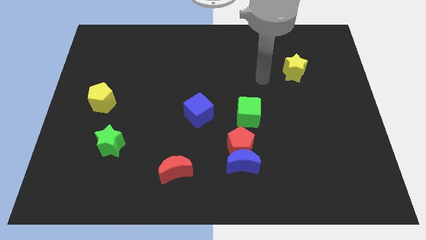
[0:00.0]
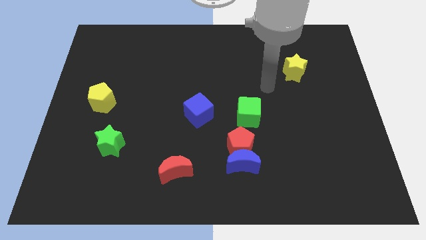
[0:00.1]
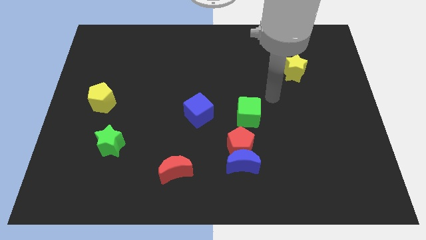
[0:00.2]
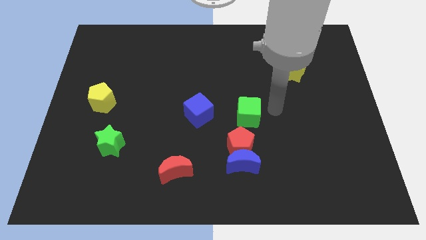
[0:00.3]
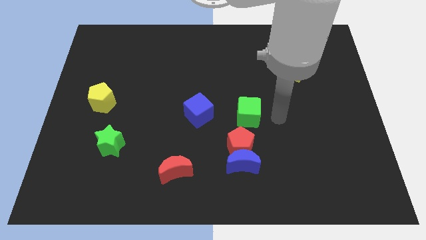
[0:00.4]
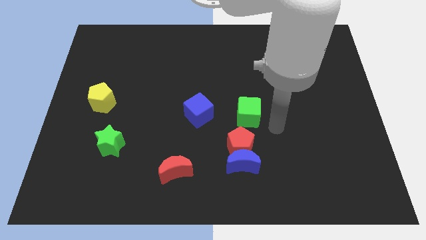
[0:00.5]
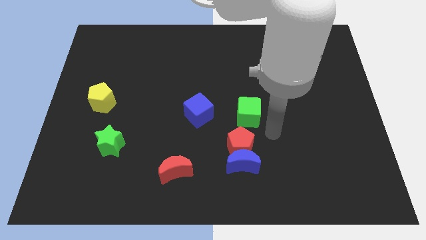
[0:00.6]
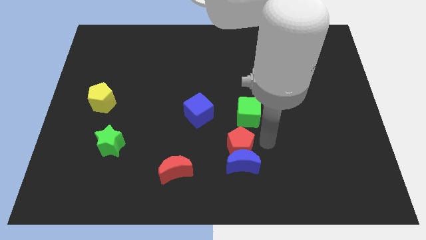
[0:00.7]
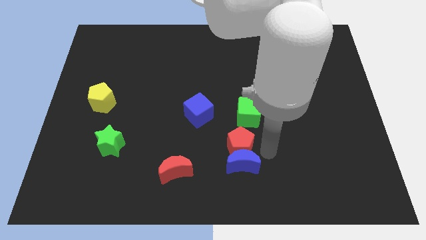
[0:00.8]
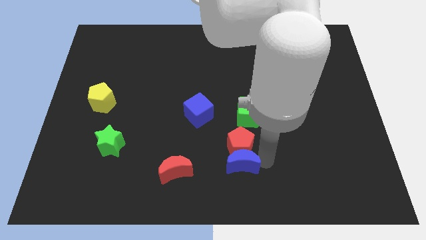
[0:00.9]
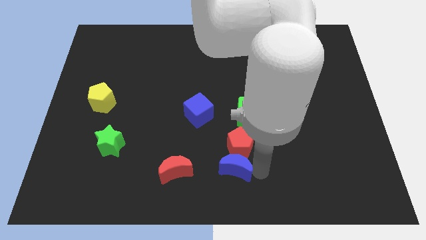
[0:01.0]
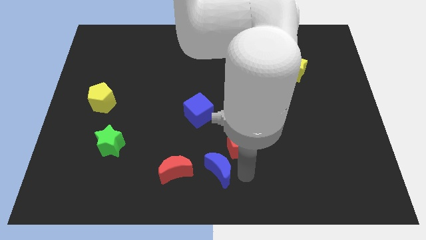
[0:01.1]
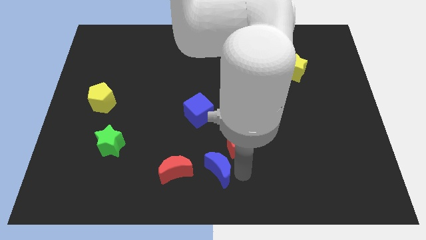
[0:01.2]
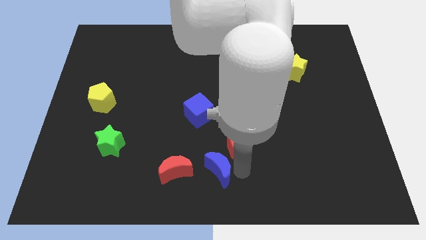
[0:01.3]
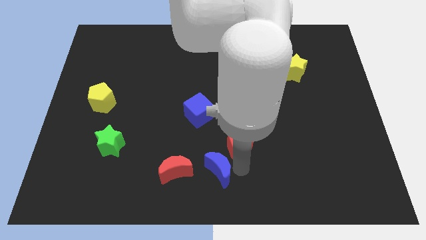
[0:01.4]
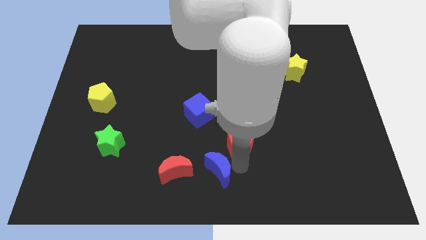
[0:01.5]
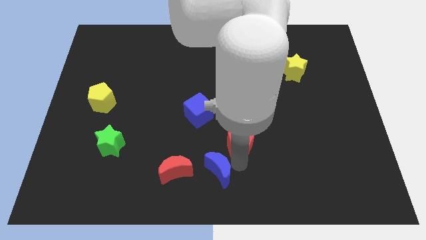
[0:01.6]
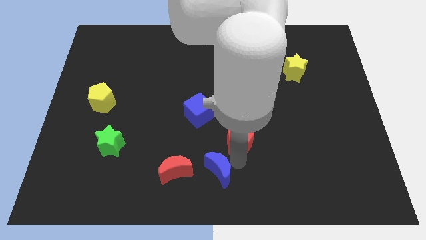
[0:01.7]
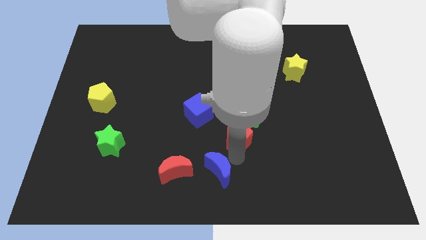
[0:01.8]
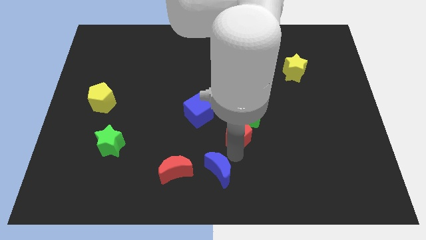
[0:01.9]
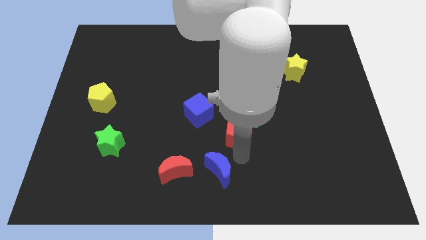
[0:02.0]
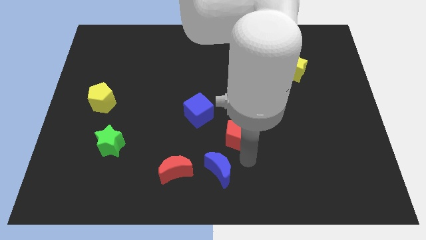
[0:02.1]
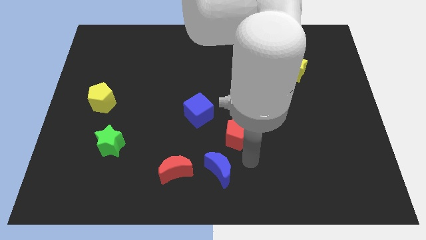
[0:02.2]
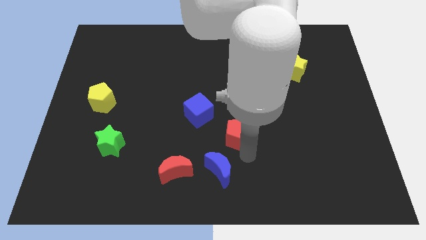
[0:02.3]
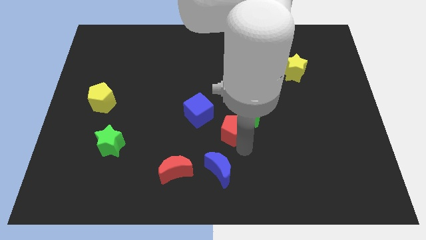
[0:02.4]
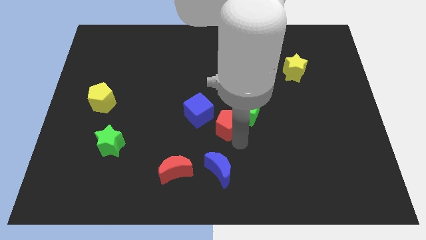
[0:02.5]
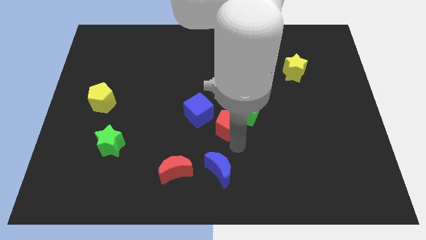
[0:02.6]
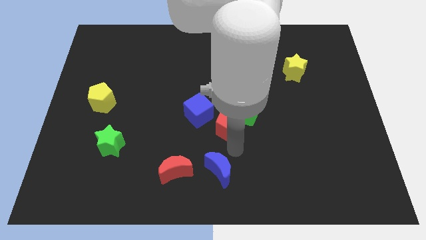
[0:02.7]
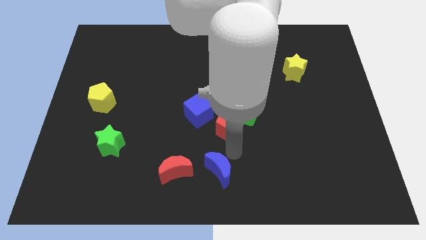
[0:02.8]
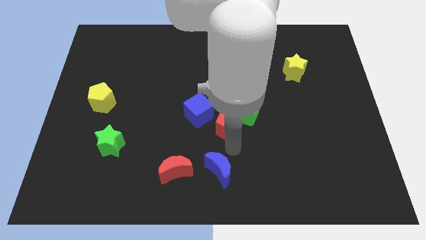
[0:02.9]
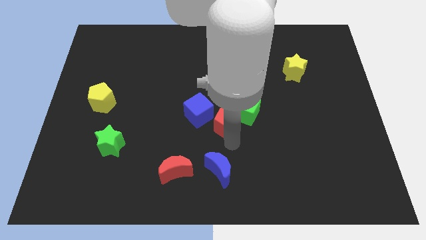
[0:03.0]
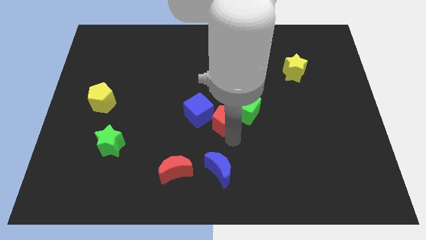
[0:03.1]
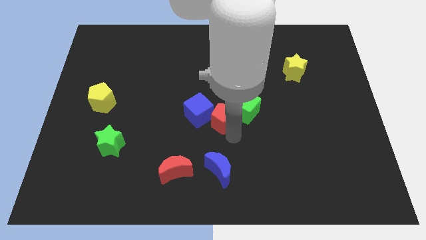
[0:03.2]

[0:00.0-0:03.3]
push the red pentagon a little diagonally upwards and to the left

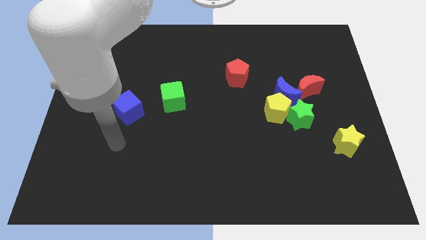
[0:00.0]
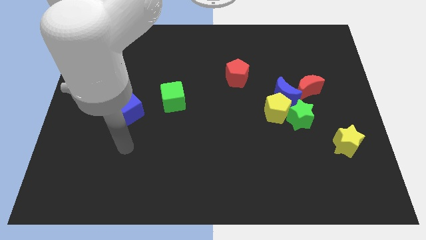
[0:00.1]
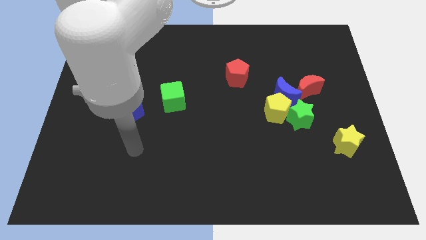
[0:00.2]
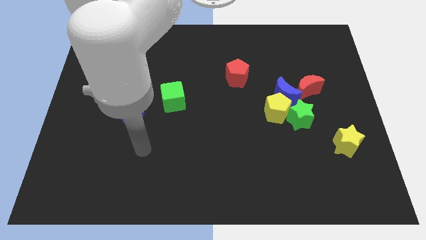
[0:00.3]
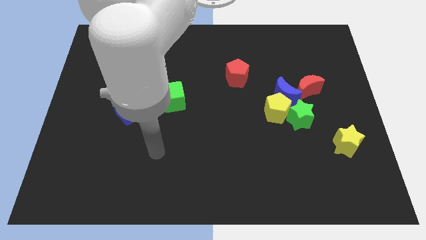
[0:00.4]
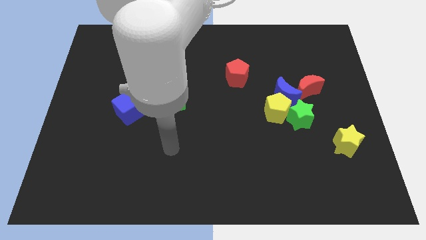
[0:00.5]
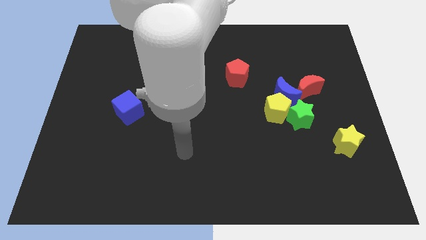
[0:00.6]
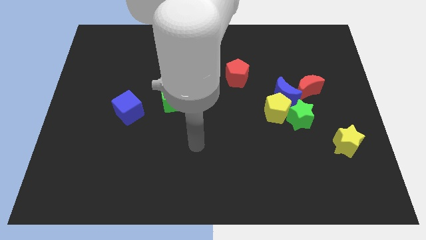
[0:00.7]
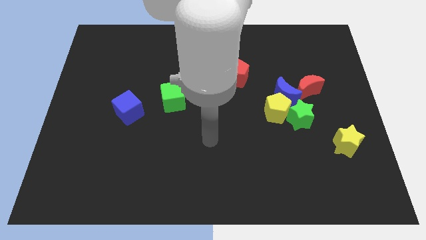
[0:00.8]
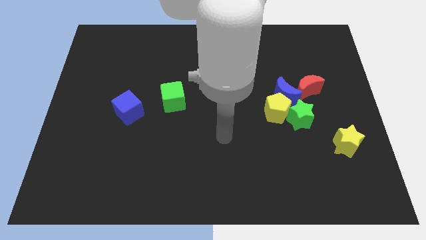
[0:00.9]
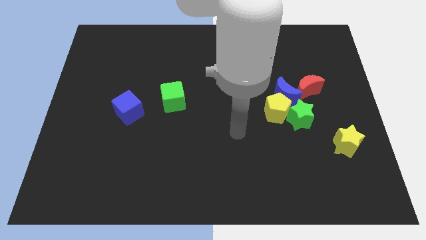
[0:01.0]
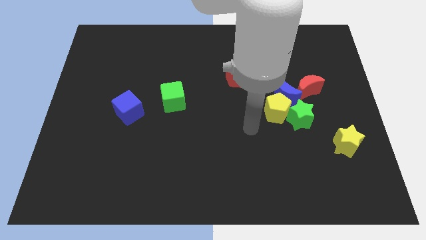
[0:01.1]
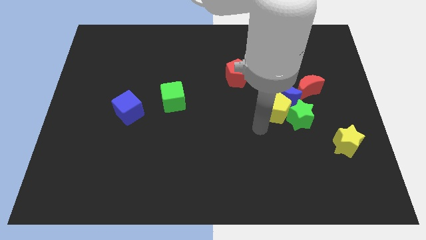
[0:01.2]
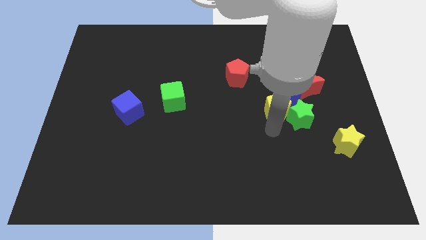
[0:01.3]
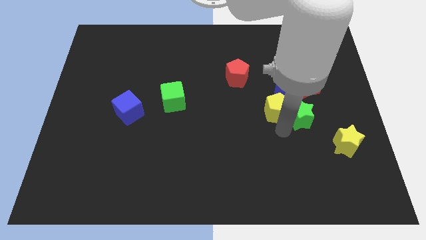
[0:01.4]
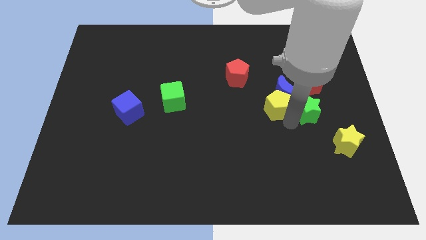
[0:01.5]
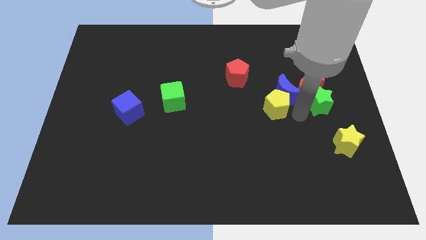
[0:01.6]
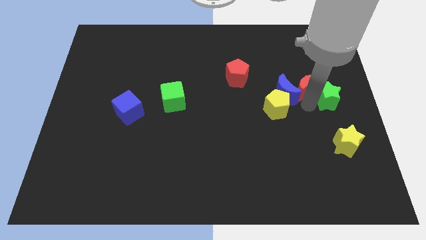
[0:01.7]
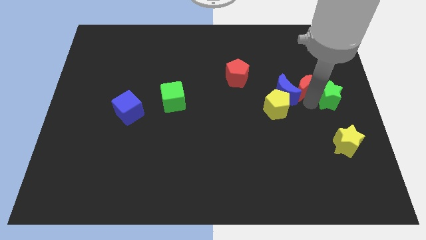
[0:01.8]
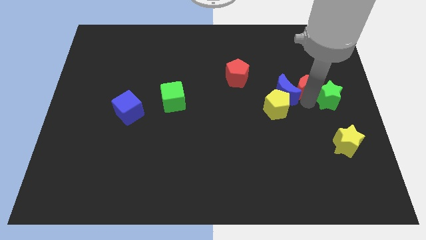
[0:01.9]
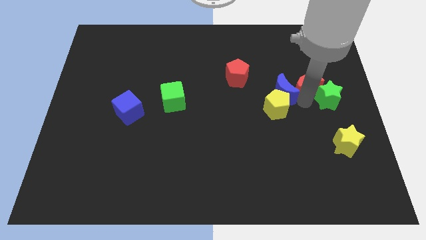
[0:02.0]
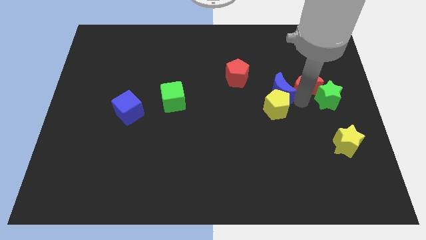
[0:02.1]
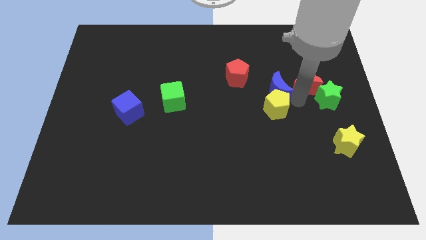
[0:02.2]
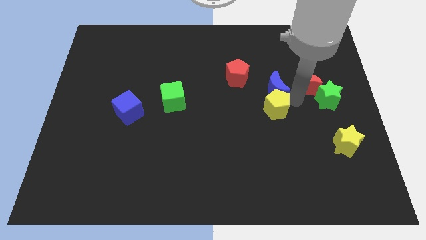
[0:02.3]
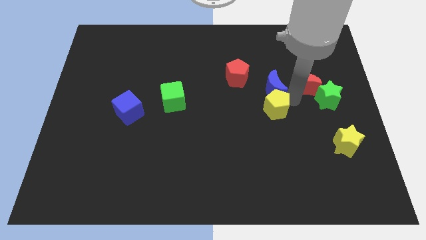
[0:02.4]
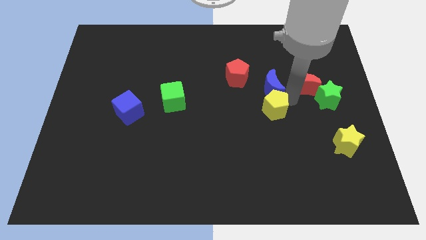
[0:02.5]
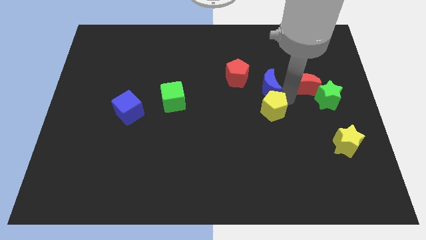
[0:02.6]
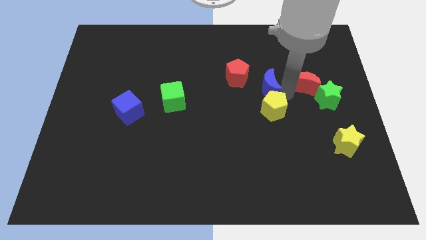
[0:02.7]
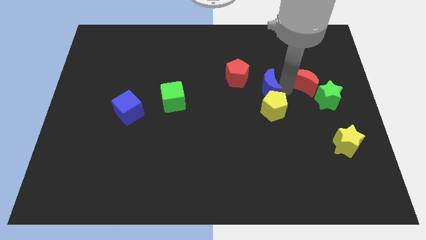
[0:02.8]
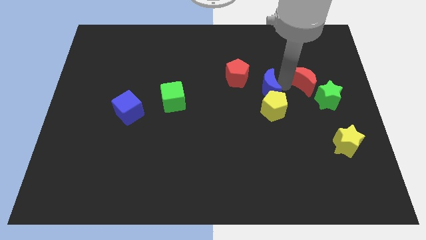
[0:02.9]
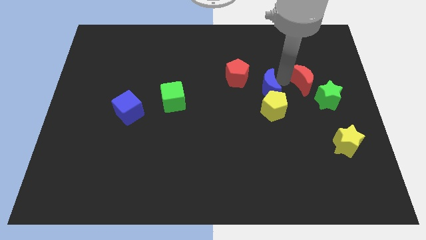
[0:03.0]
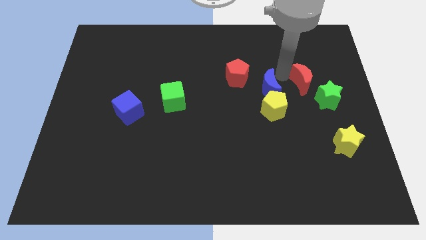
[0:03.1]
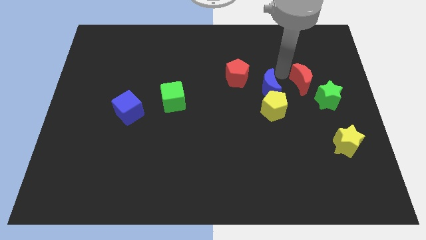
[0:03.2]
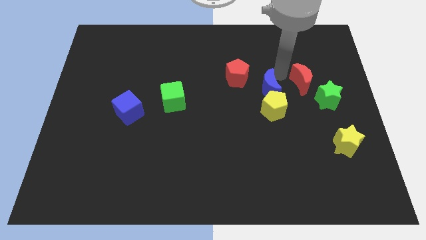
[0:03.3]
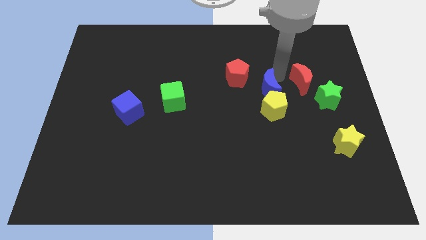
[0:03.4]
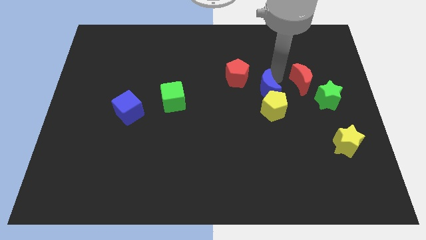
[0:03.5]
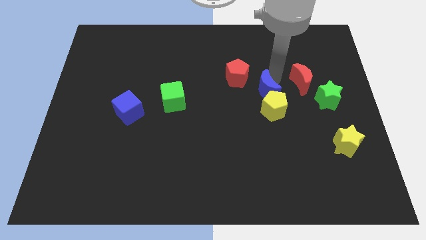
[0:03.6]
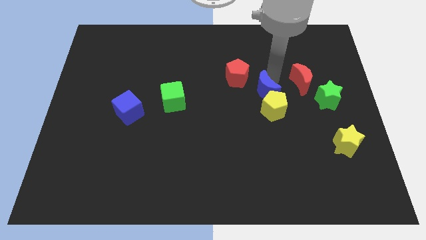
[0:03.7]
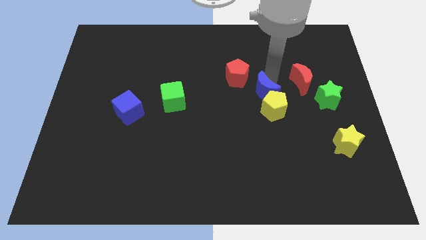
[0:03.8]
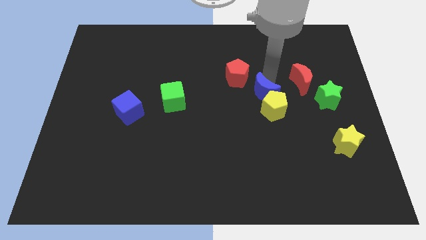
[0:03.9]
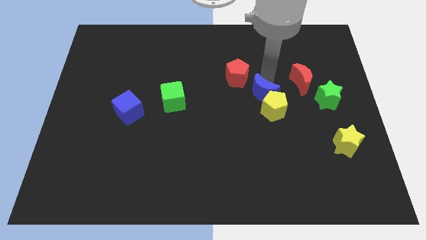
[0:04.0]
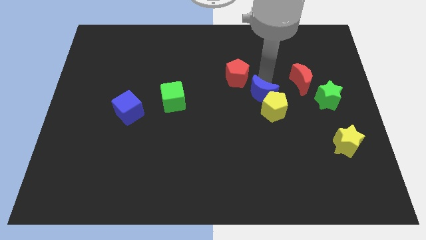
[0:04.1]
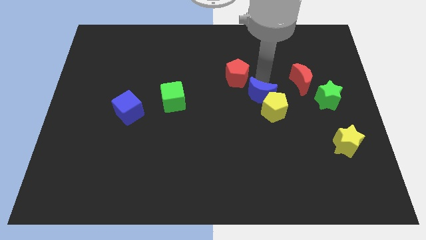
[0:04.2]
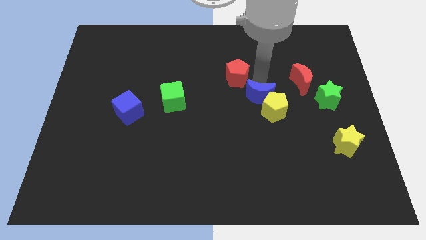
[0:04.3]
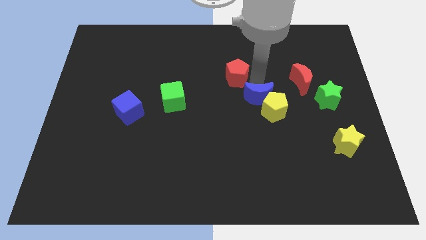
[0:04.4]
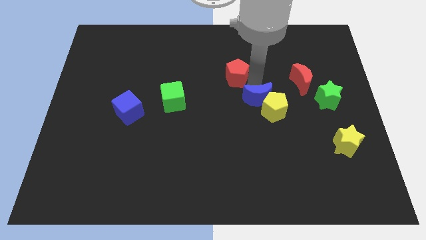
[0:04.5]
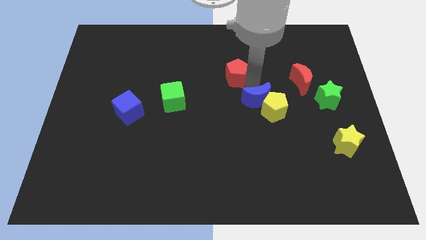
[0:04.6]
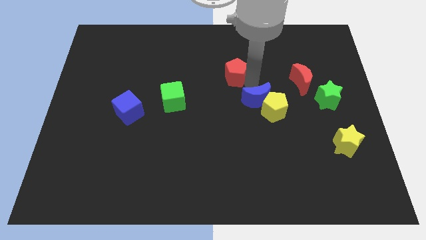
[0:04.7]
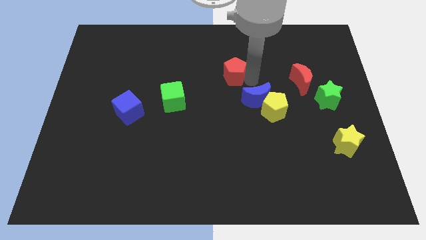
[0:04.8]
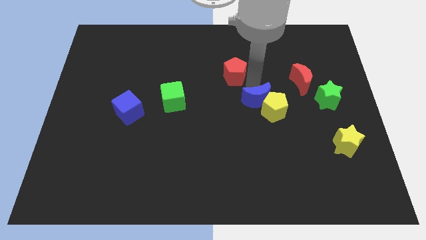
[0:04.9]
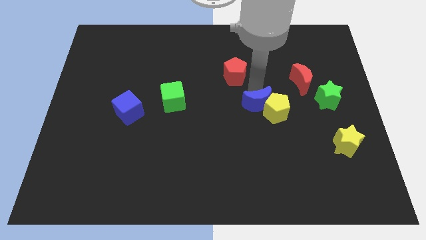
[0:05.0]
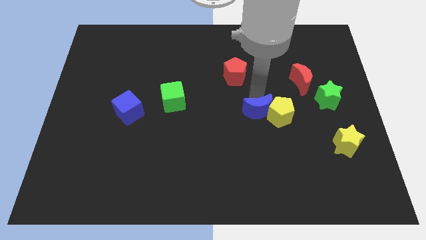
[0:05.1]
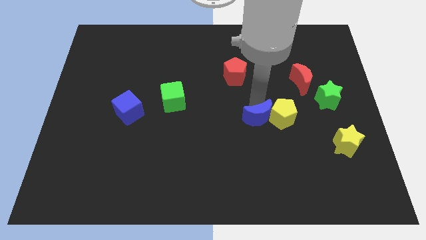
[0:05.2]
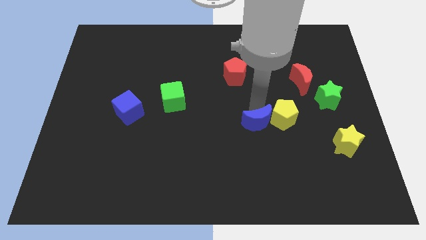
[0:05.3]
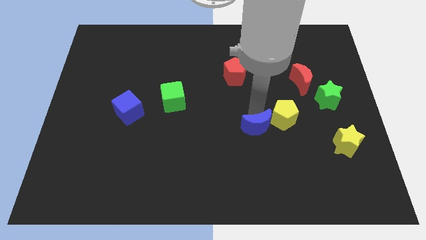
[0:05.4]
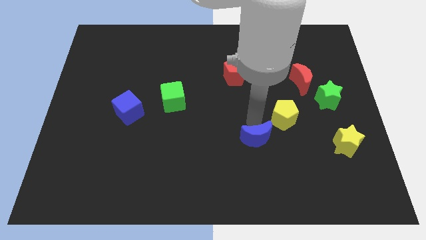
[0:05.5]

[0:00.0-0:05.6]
push the blue moon downwards somewhat
